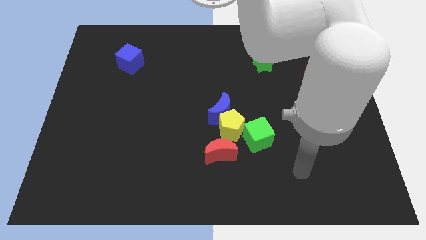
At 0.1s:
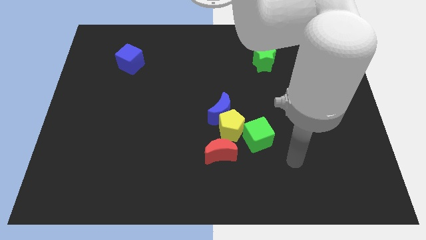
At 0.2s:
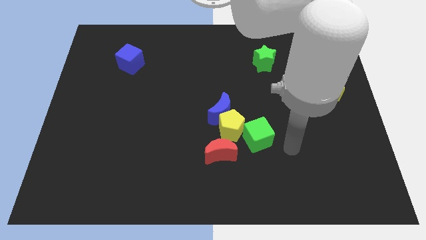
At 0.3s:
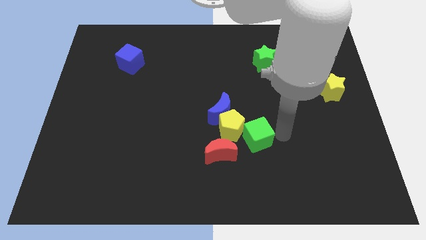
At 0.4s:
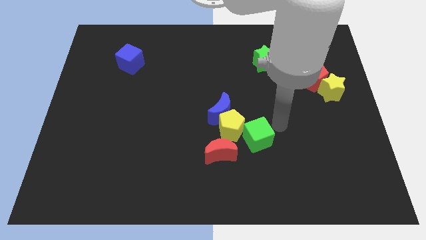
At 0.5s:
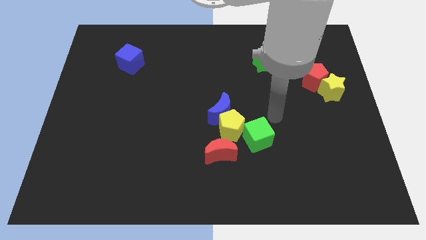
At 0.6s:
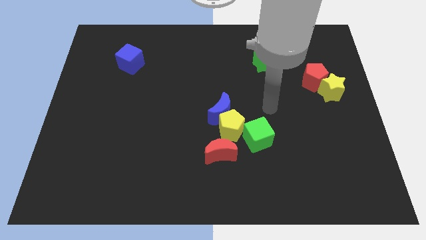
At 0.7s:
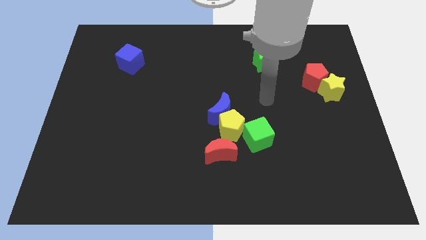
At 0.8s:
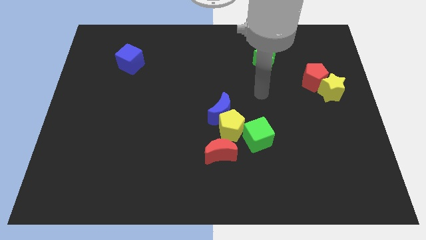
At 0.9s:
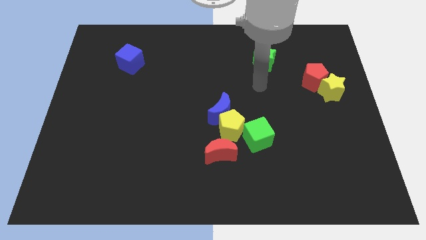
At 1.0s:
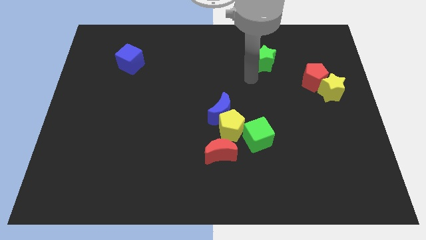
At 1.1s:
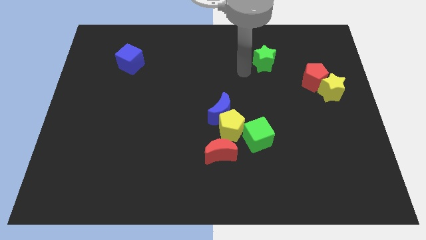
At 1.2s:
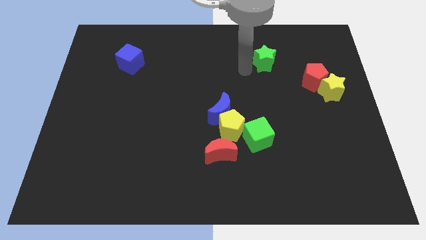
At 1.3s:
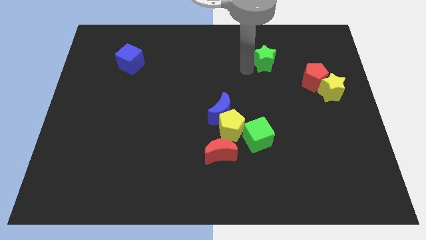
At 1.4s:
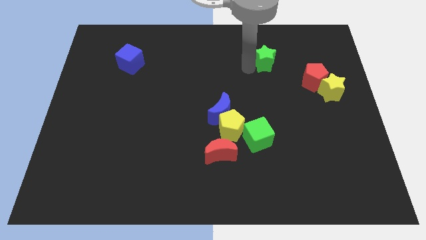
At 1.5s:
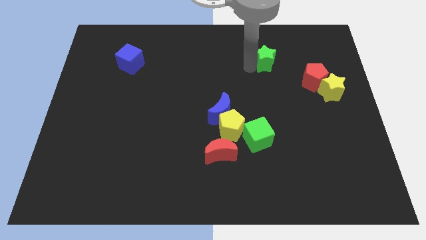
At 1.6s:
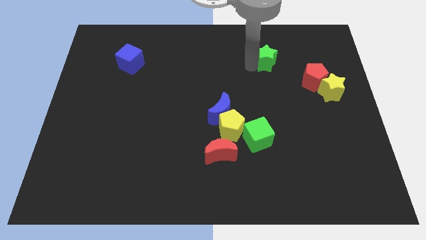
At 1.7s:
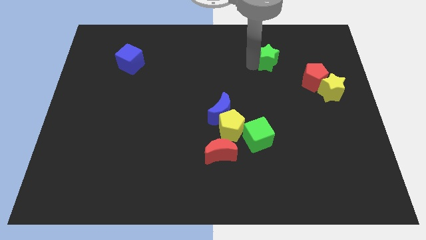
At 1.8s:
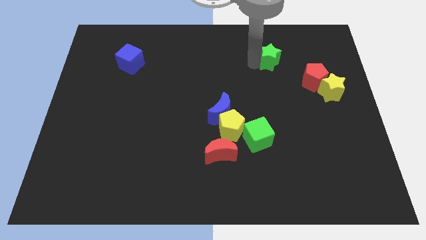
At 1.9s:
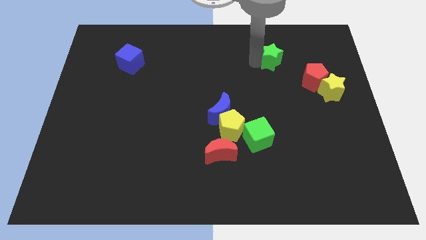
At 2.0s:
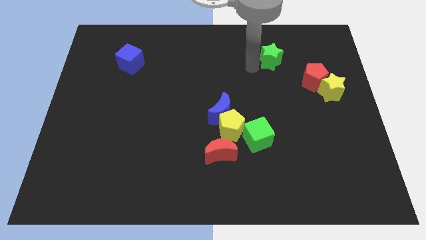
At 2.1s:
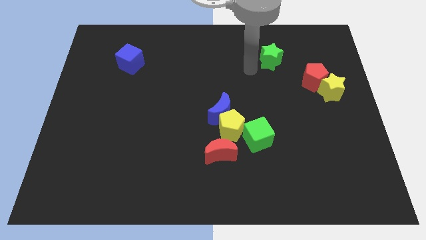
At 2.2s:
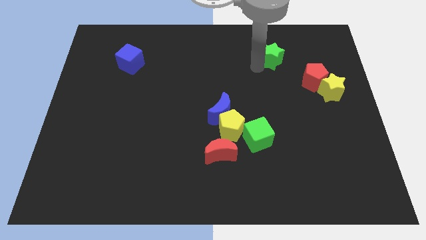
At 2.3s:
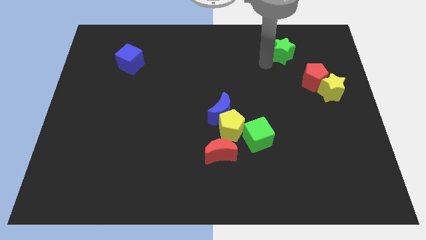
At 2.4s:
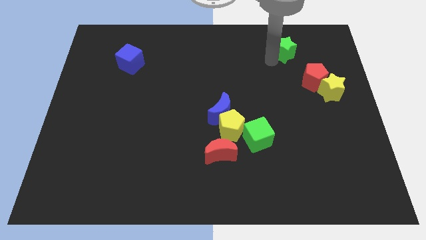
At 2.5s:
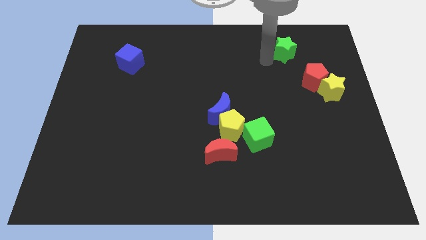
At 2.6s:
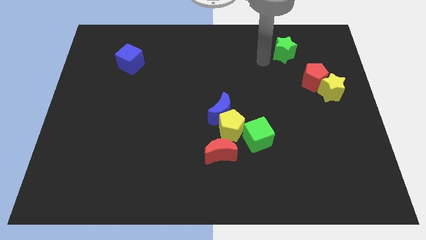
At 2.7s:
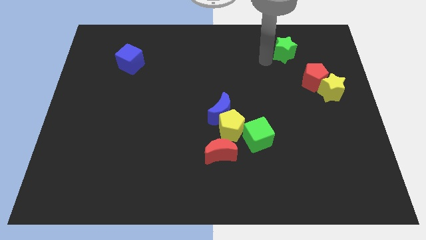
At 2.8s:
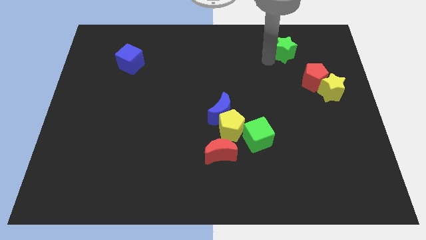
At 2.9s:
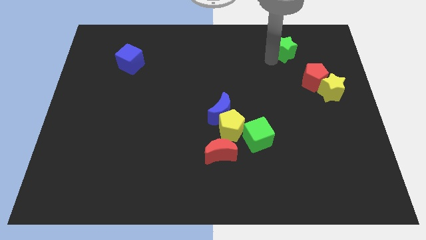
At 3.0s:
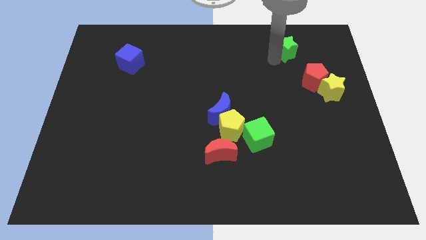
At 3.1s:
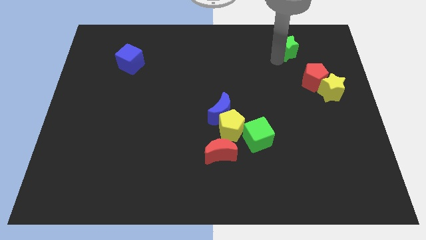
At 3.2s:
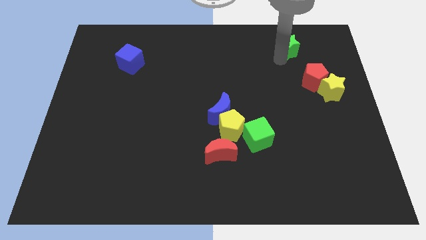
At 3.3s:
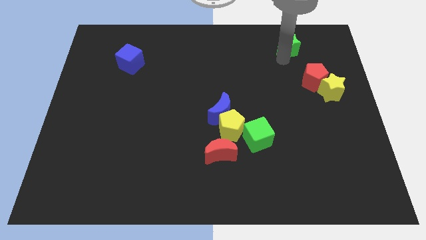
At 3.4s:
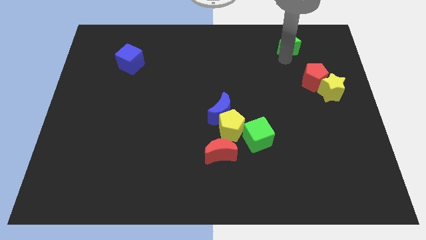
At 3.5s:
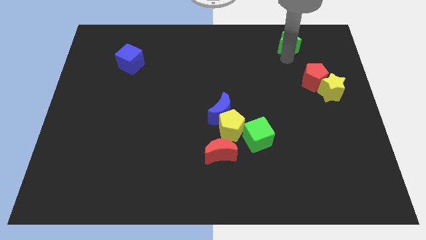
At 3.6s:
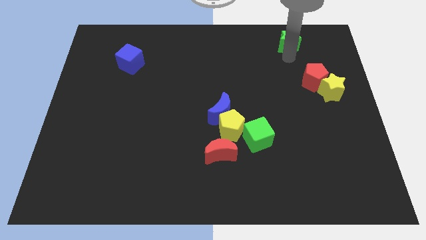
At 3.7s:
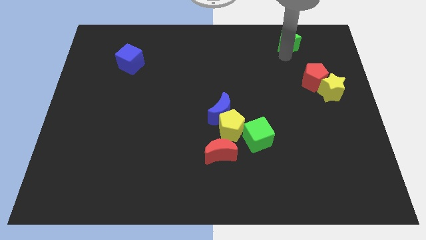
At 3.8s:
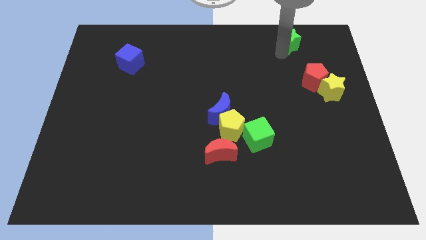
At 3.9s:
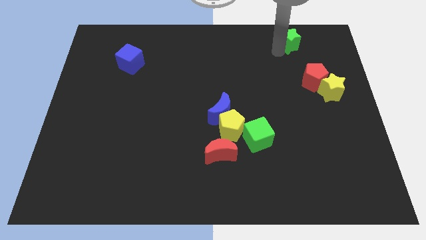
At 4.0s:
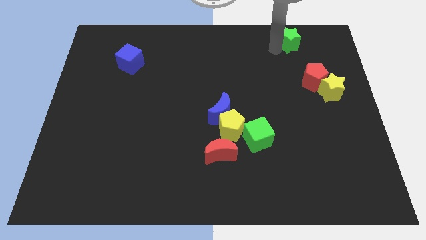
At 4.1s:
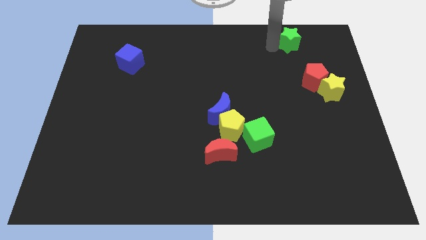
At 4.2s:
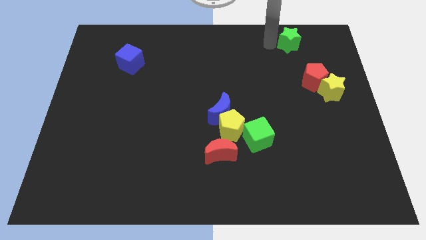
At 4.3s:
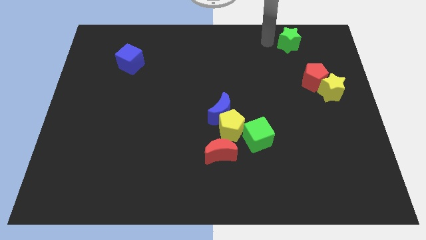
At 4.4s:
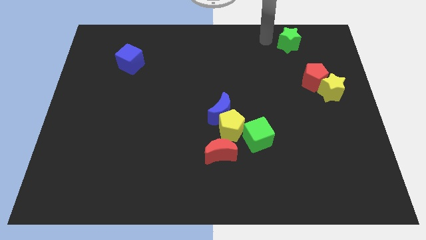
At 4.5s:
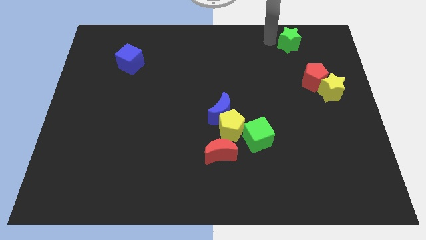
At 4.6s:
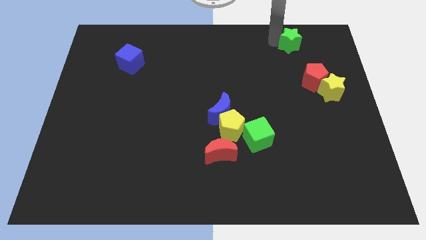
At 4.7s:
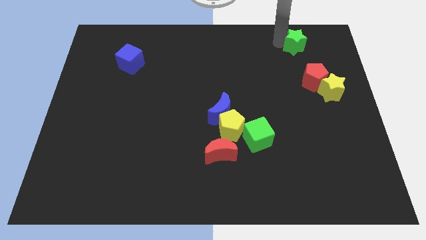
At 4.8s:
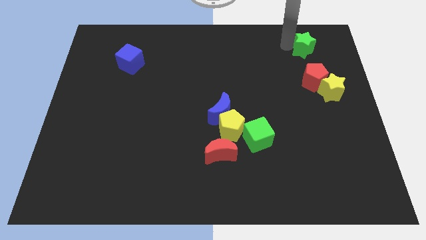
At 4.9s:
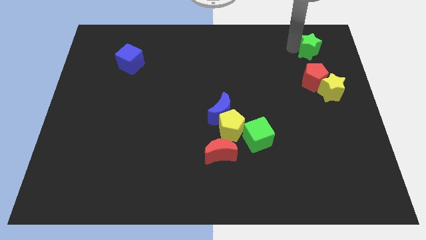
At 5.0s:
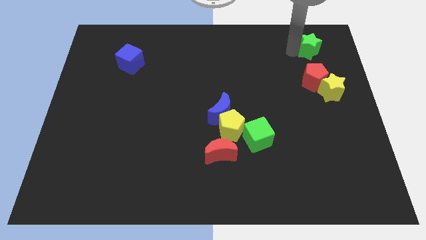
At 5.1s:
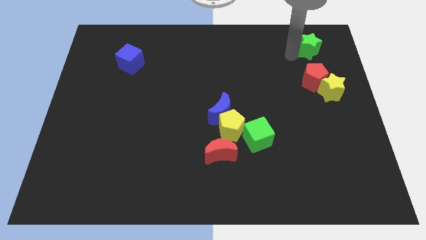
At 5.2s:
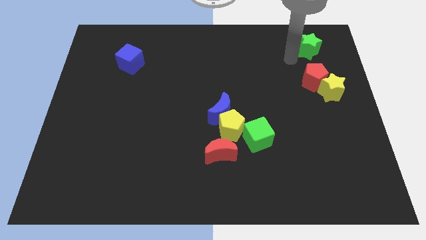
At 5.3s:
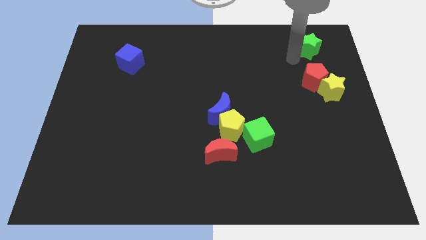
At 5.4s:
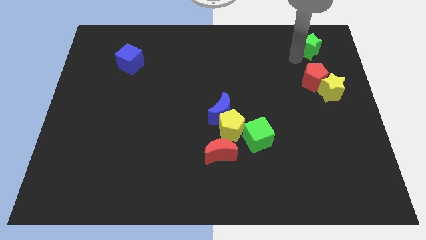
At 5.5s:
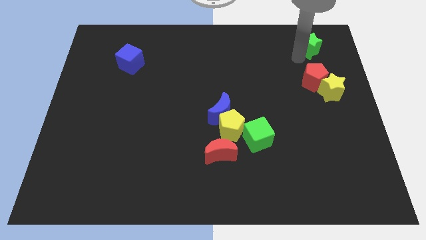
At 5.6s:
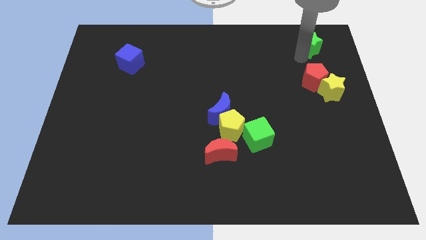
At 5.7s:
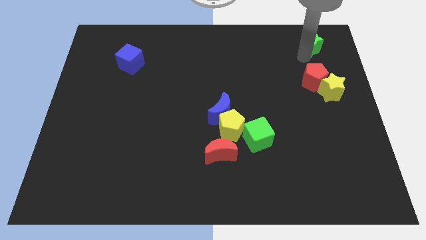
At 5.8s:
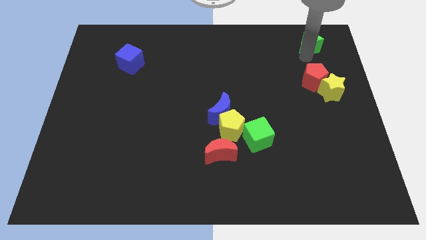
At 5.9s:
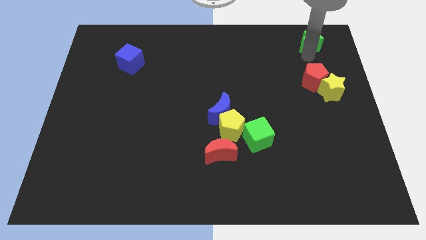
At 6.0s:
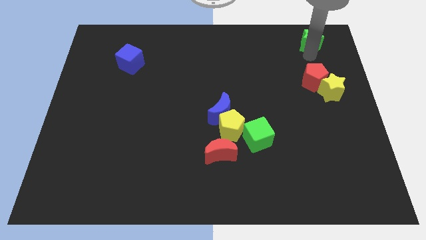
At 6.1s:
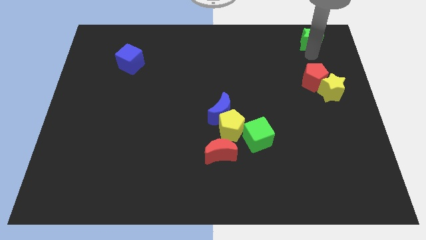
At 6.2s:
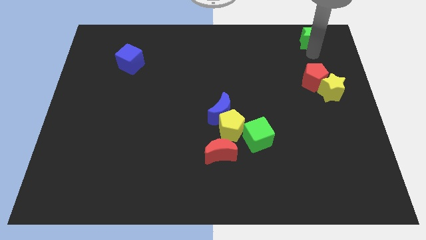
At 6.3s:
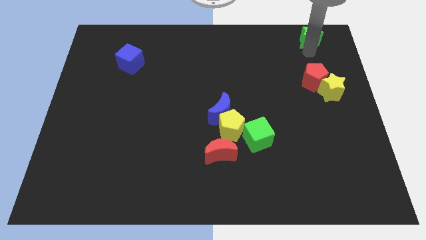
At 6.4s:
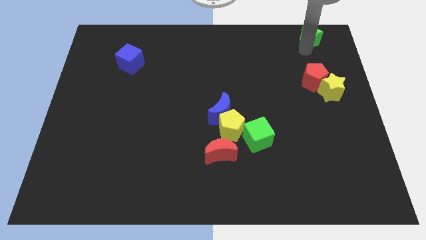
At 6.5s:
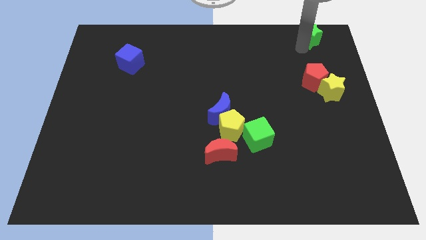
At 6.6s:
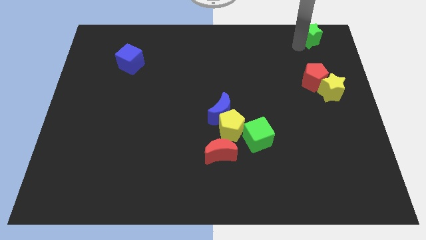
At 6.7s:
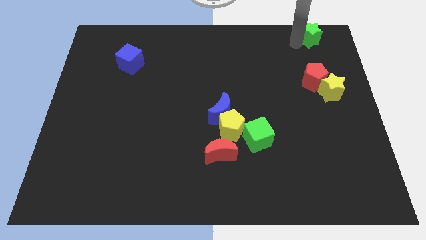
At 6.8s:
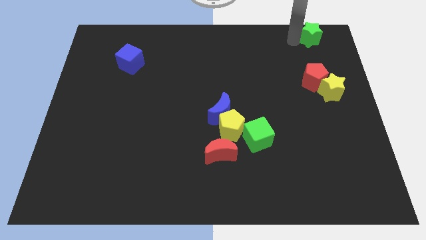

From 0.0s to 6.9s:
slide the green star to the top right corner
